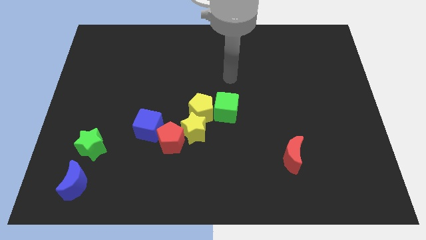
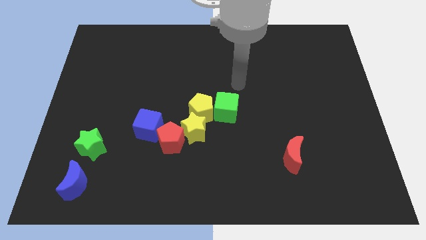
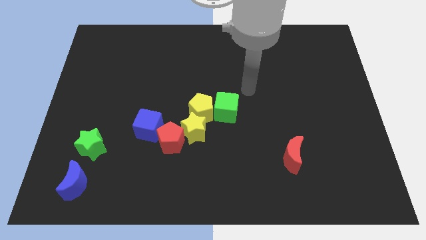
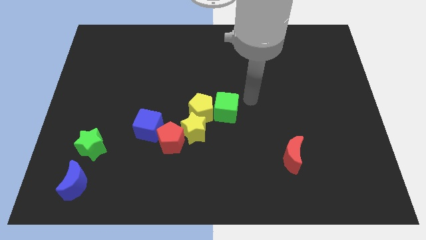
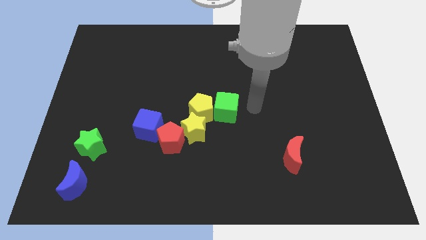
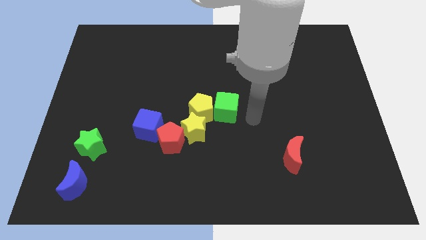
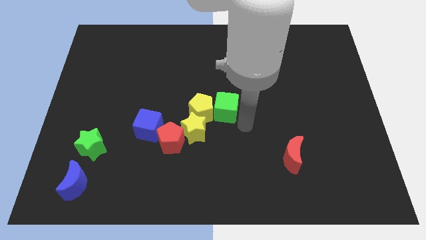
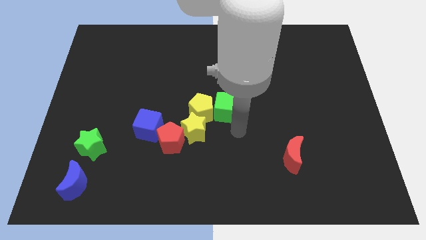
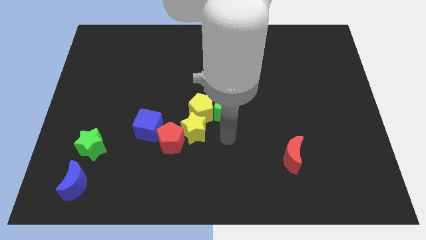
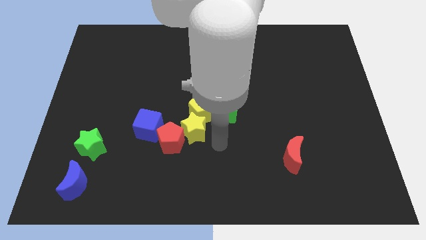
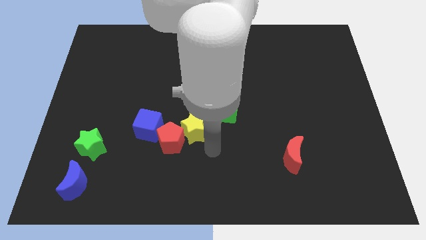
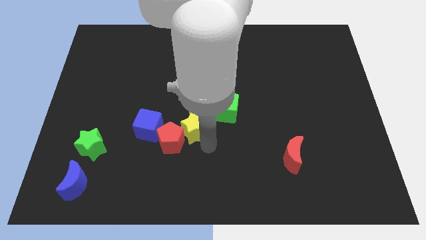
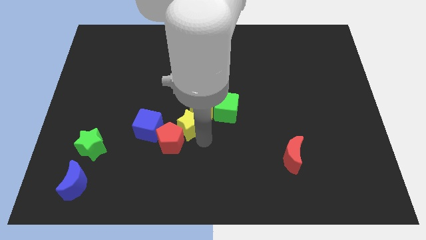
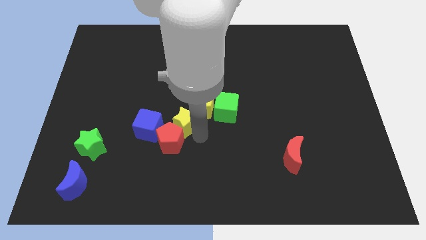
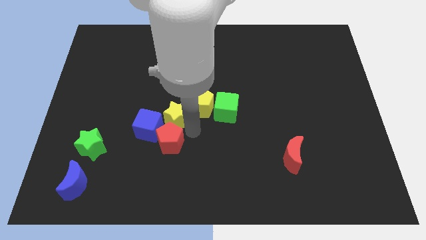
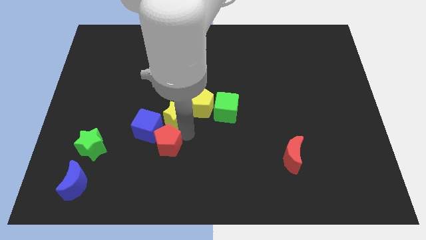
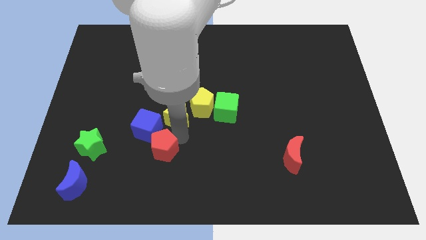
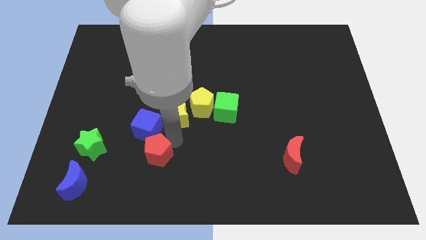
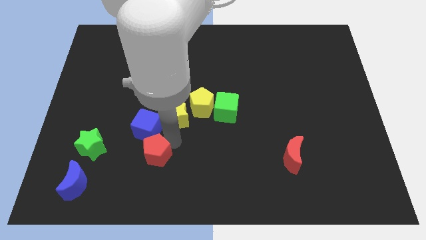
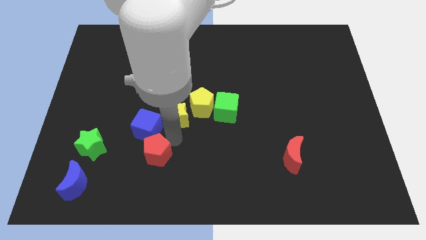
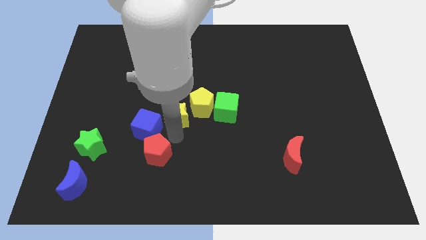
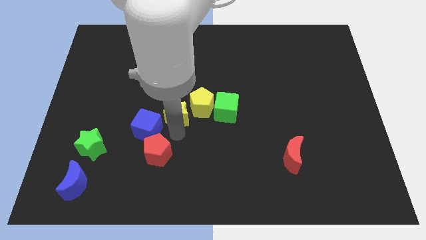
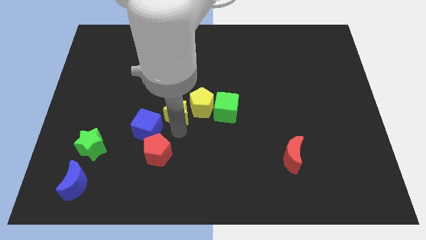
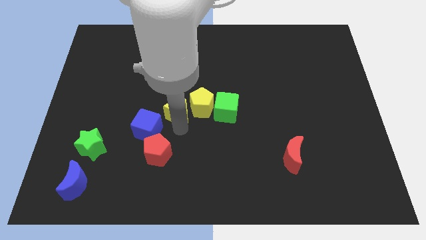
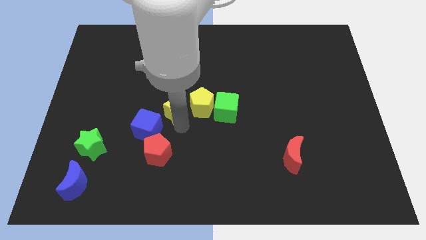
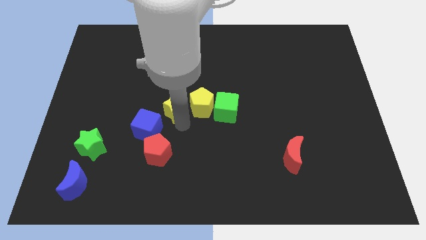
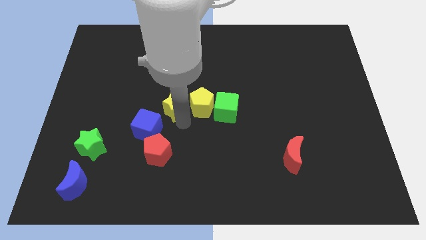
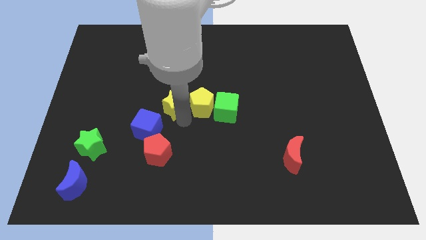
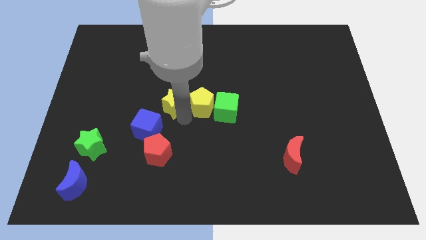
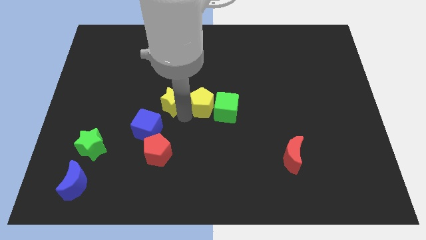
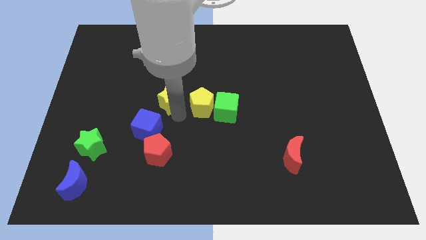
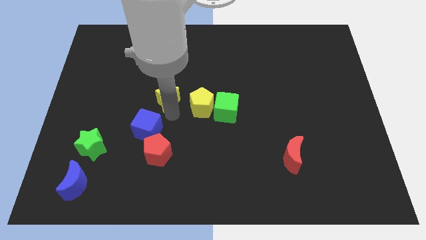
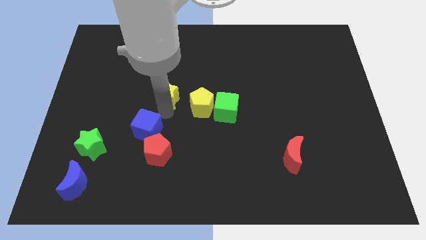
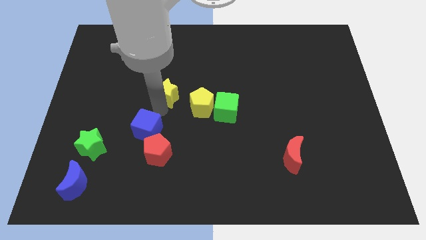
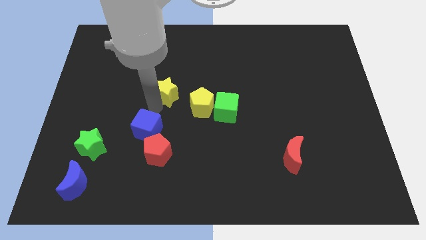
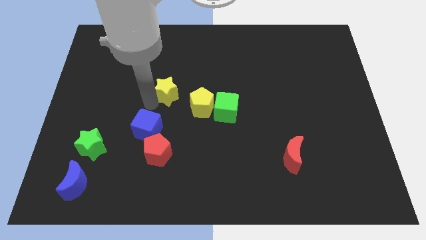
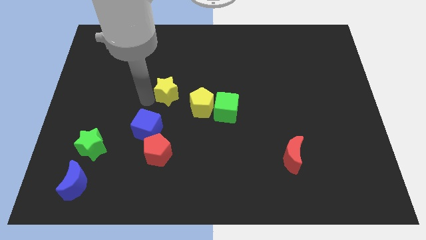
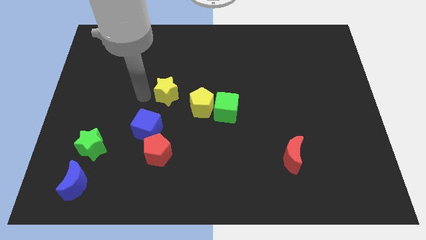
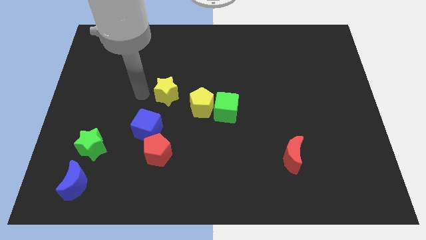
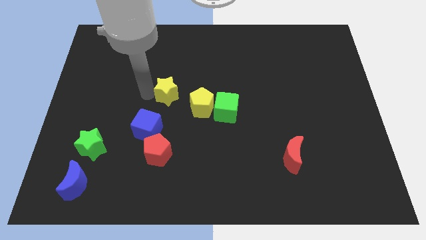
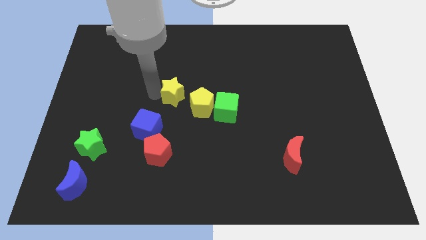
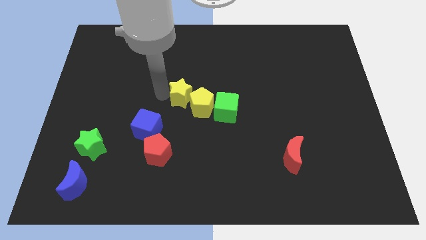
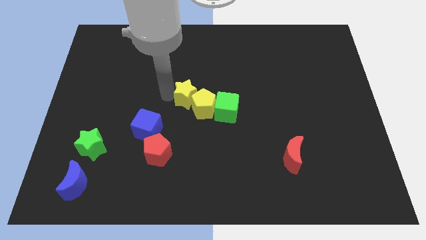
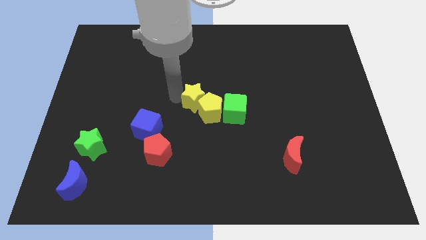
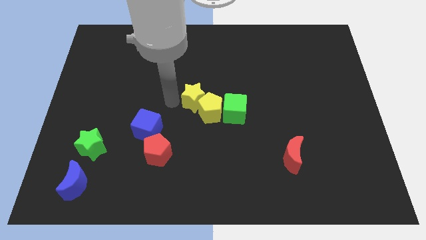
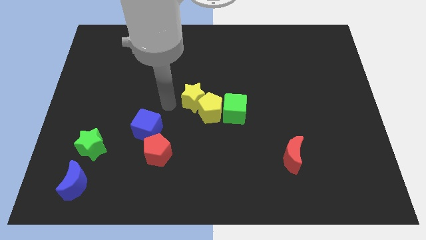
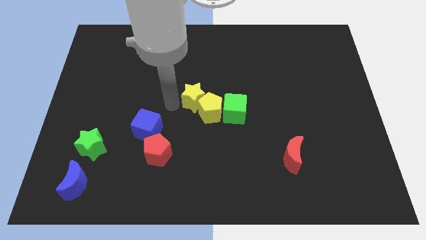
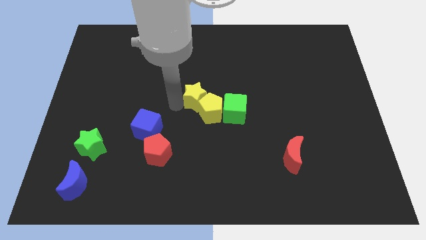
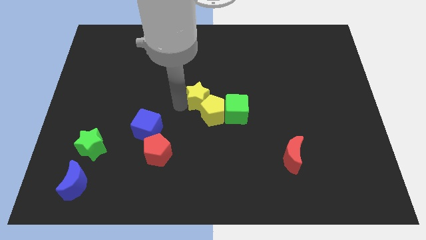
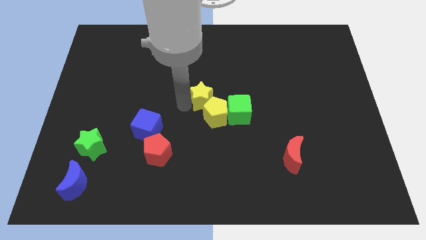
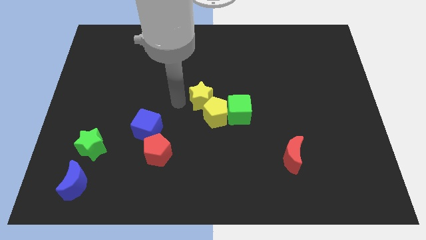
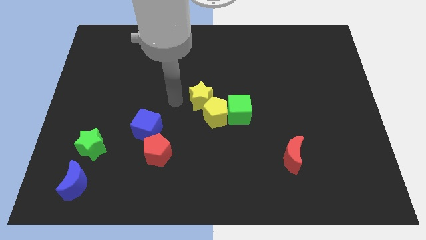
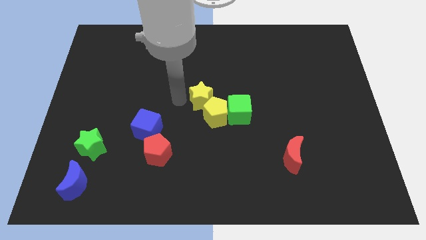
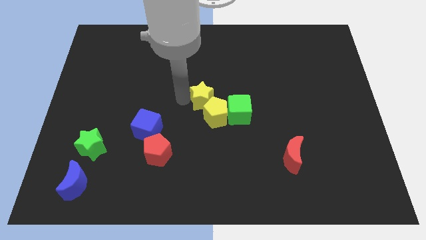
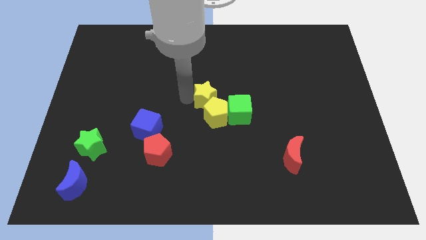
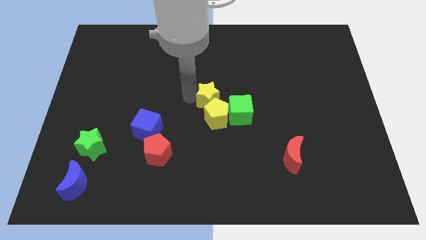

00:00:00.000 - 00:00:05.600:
move the yellow star to the top right of the yellow pentagon

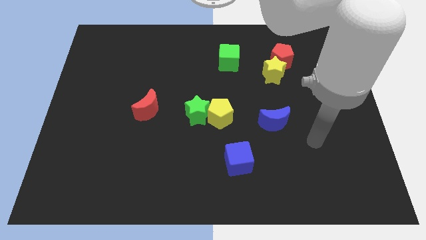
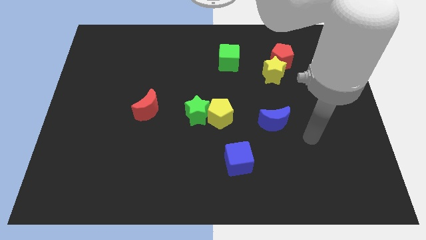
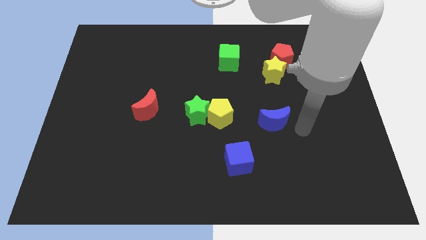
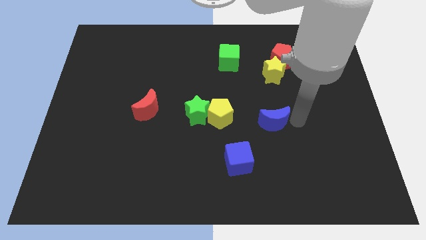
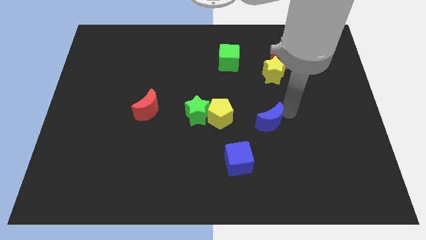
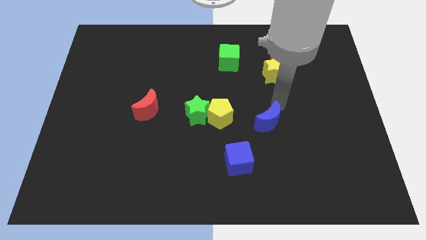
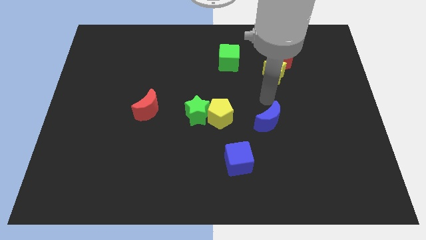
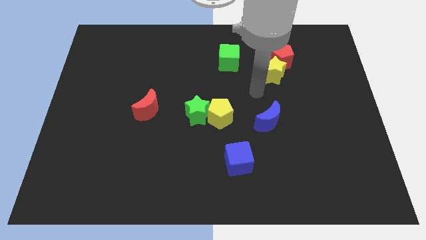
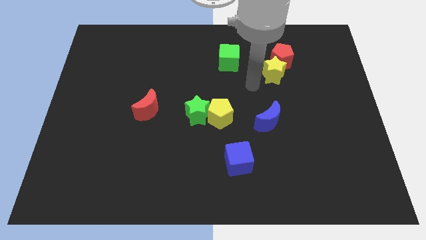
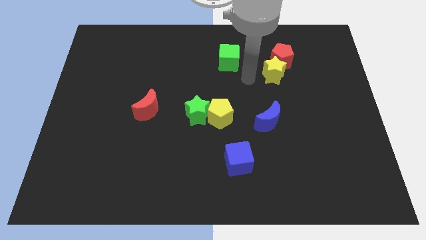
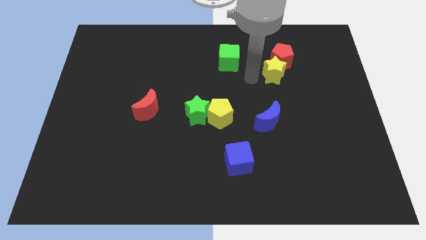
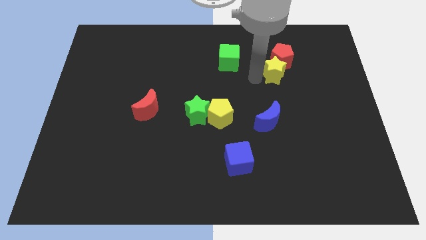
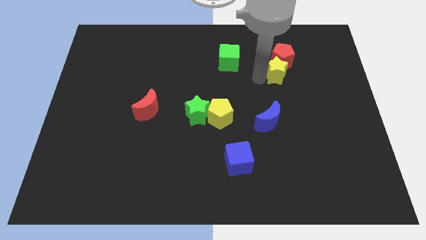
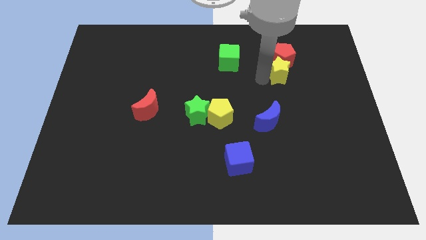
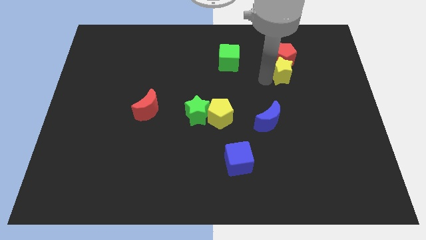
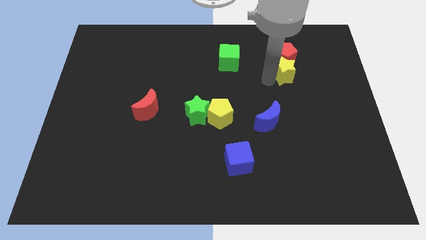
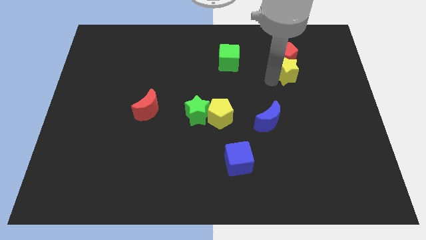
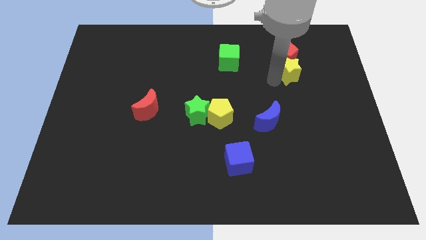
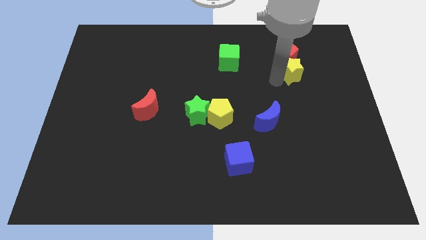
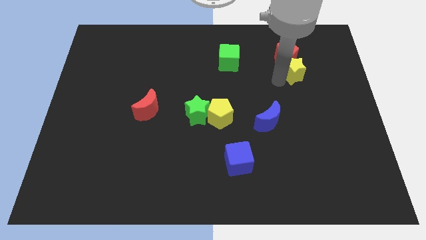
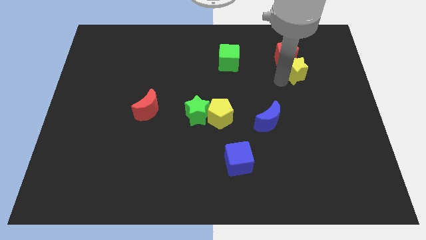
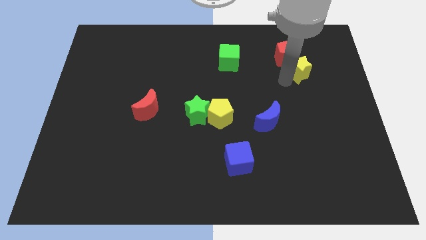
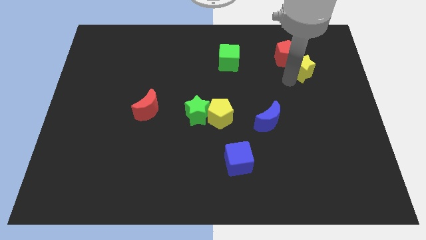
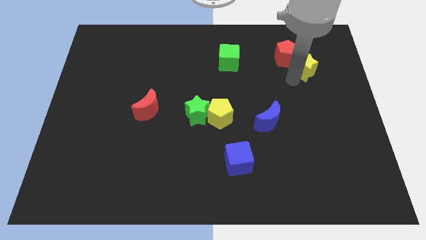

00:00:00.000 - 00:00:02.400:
slide the yellow star to the right side of the red pentagon
